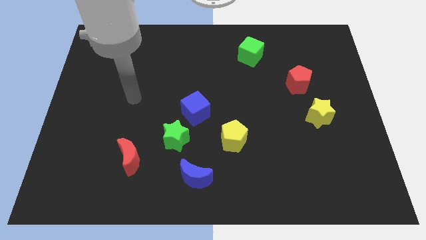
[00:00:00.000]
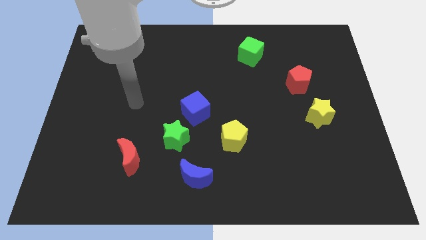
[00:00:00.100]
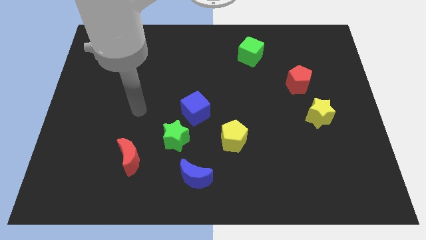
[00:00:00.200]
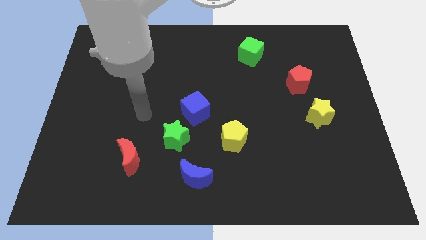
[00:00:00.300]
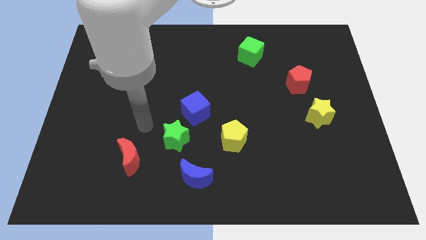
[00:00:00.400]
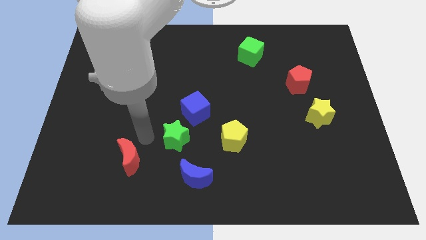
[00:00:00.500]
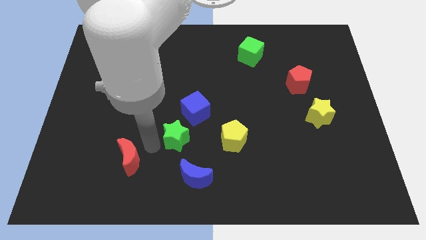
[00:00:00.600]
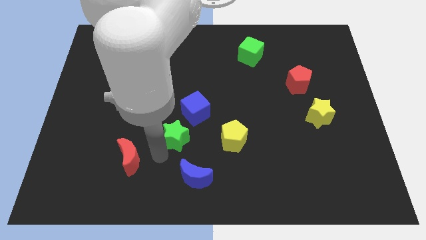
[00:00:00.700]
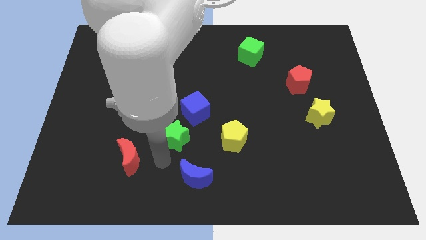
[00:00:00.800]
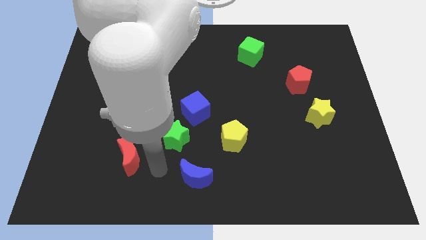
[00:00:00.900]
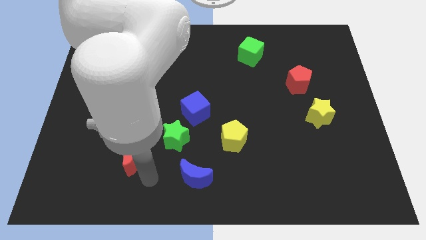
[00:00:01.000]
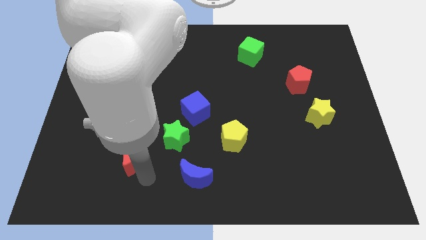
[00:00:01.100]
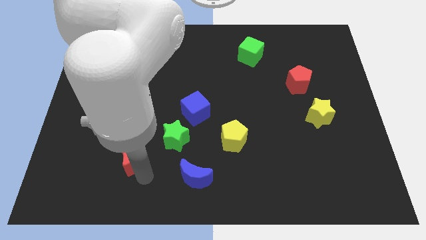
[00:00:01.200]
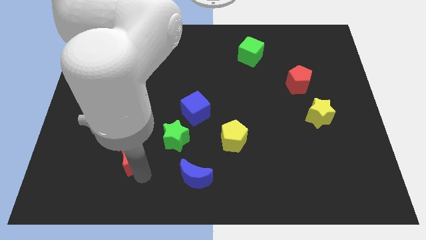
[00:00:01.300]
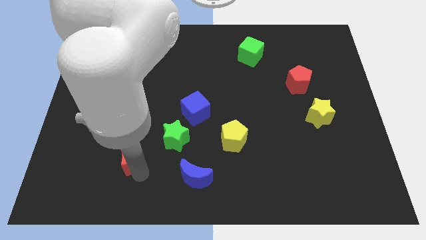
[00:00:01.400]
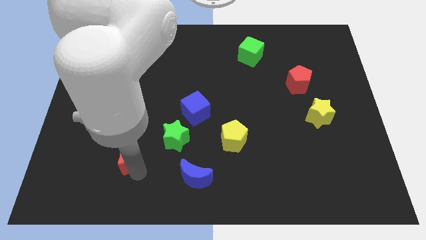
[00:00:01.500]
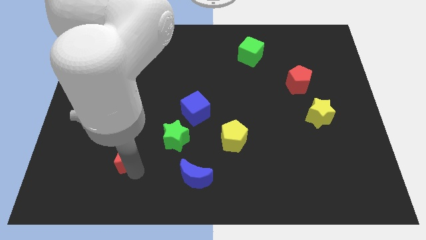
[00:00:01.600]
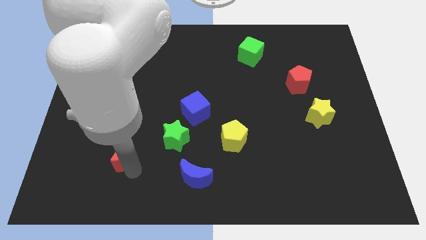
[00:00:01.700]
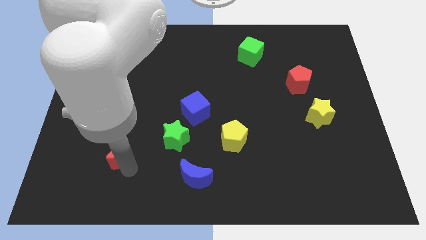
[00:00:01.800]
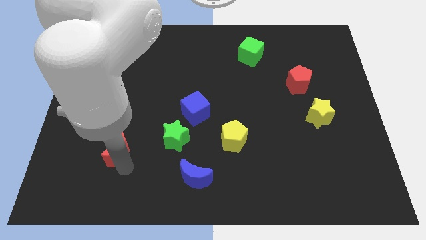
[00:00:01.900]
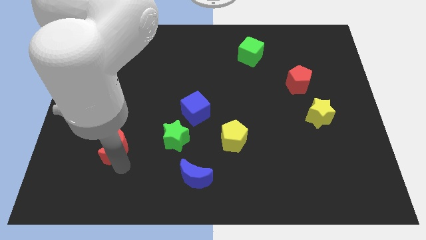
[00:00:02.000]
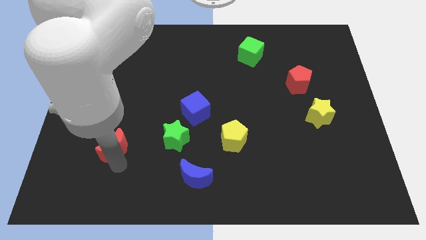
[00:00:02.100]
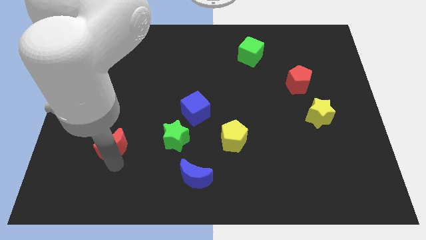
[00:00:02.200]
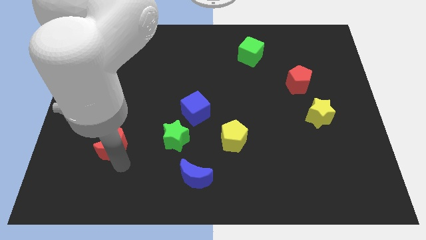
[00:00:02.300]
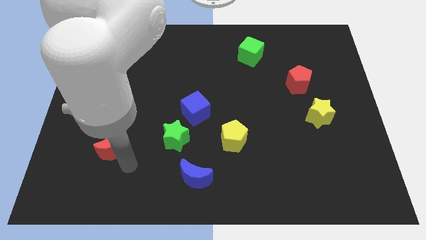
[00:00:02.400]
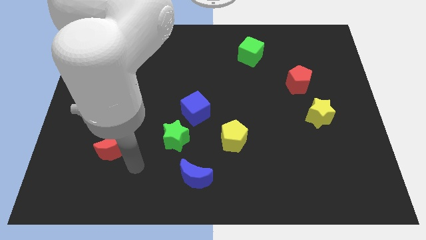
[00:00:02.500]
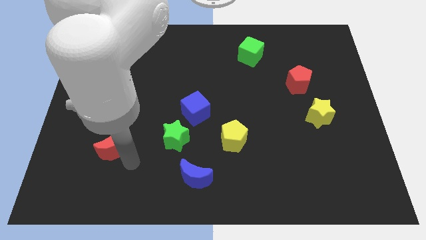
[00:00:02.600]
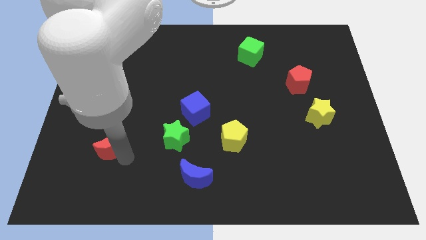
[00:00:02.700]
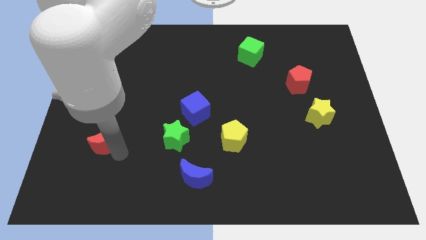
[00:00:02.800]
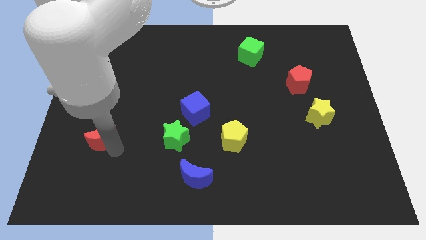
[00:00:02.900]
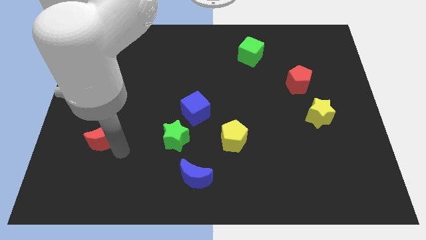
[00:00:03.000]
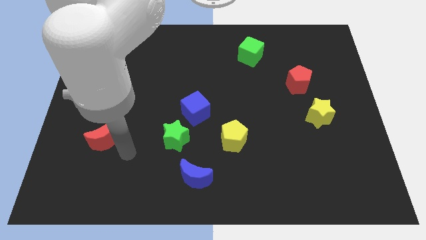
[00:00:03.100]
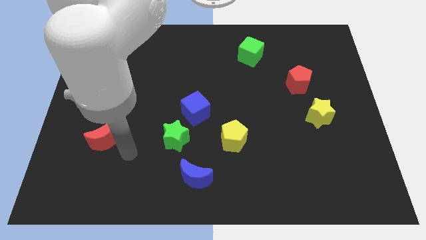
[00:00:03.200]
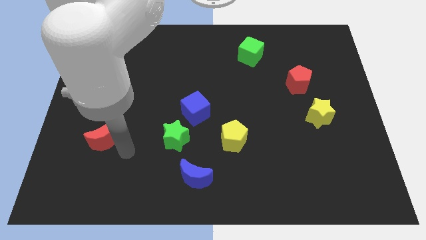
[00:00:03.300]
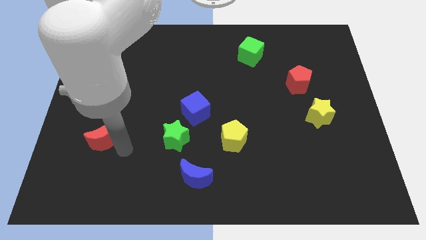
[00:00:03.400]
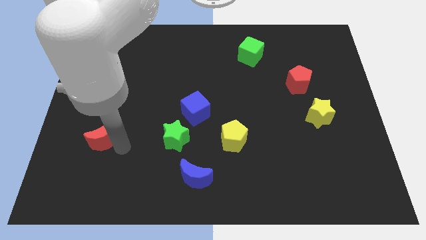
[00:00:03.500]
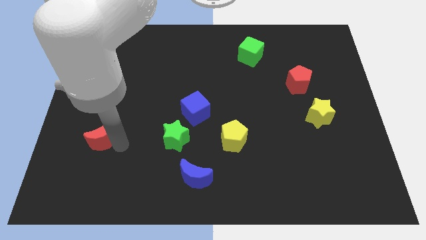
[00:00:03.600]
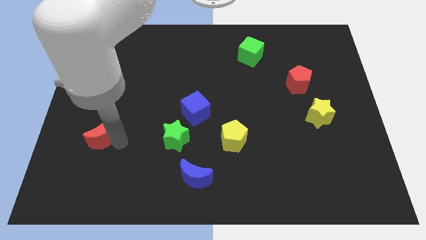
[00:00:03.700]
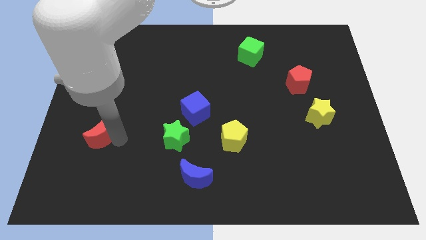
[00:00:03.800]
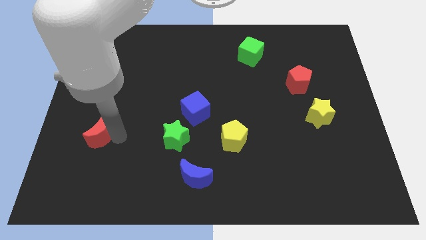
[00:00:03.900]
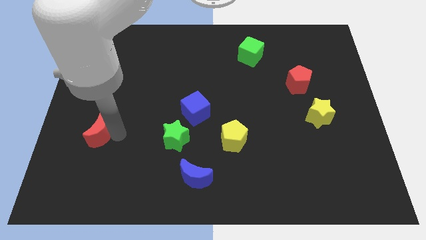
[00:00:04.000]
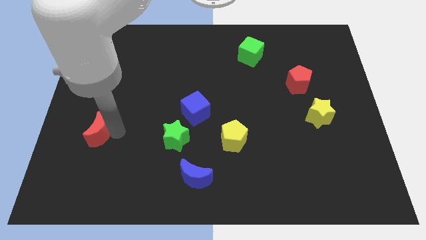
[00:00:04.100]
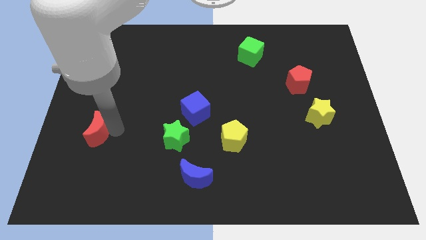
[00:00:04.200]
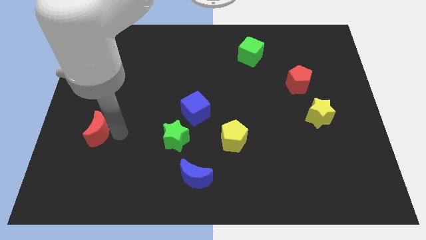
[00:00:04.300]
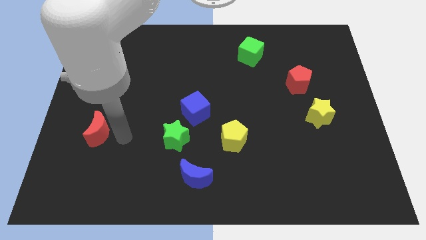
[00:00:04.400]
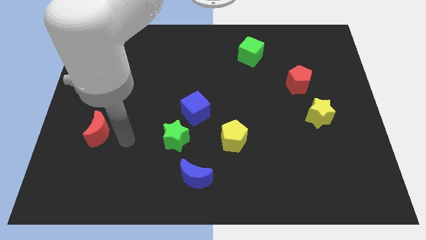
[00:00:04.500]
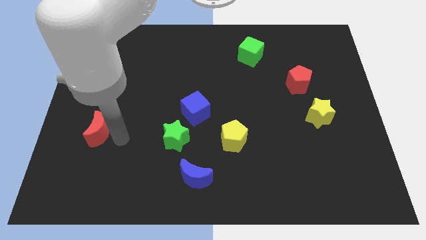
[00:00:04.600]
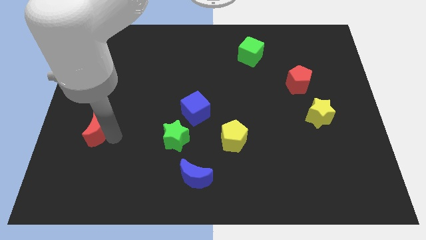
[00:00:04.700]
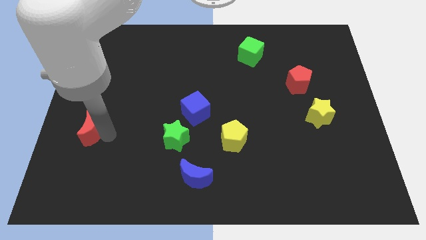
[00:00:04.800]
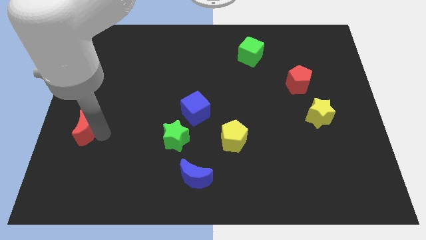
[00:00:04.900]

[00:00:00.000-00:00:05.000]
move the red moon to the left side

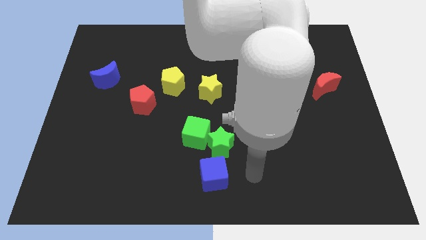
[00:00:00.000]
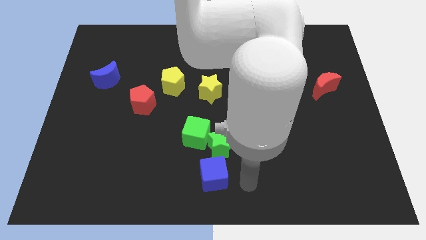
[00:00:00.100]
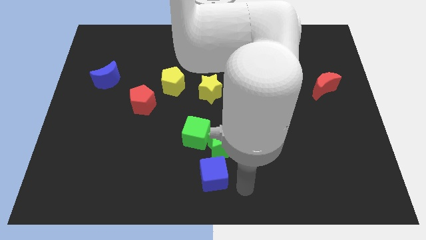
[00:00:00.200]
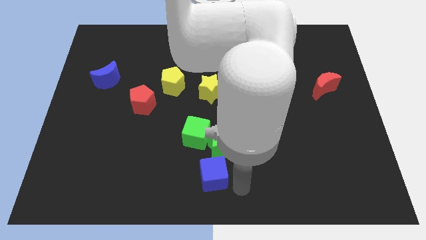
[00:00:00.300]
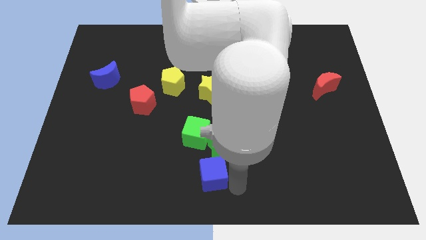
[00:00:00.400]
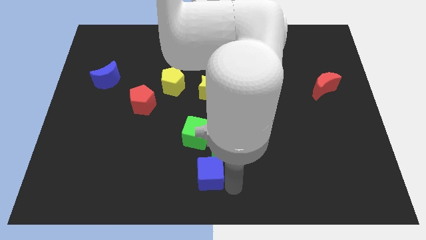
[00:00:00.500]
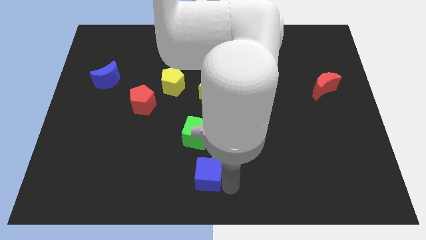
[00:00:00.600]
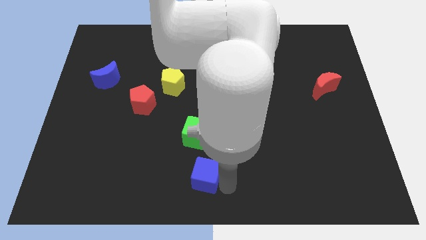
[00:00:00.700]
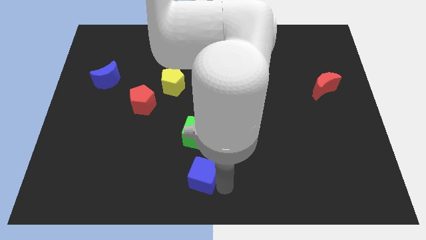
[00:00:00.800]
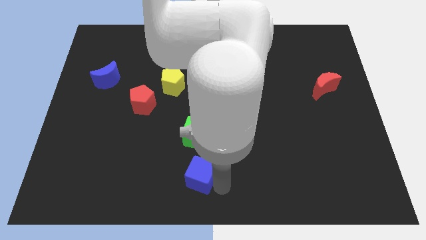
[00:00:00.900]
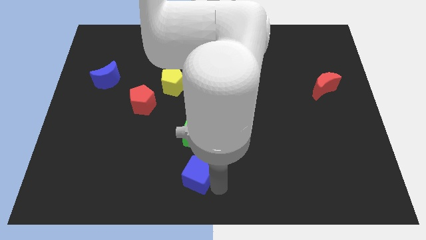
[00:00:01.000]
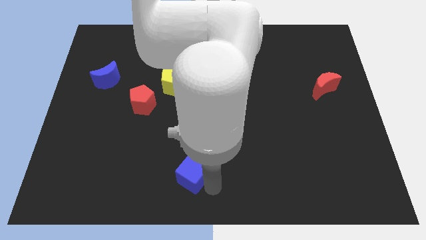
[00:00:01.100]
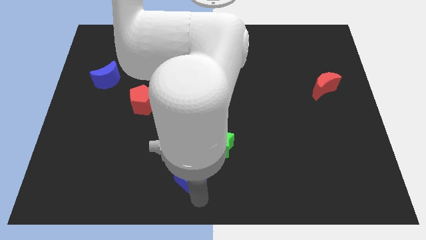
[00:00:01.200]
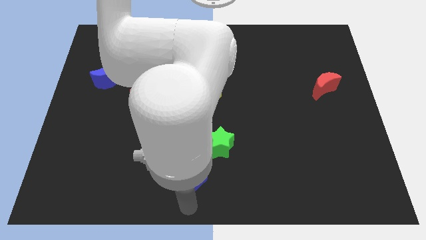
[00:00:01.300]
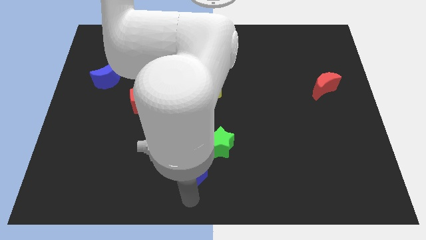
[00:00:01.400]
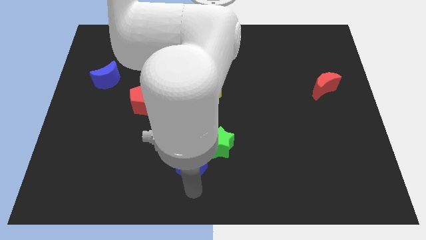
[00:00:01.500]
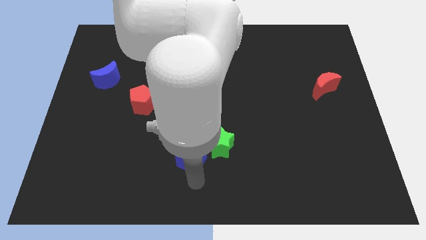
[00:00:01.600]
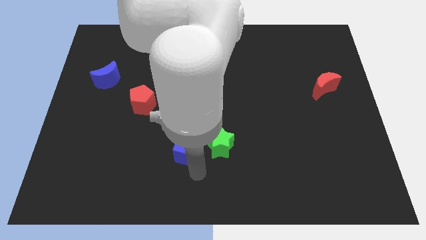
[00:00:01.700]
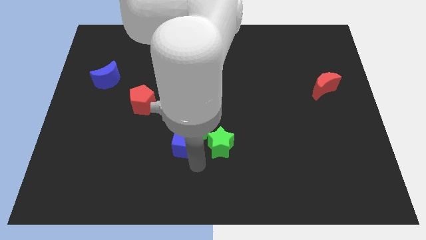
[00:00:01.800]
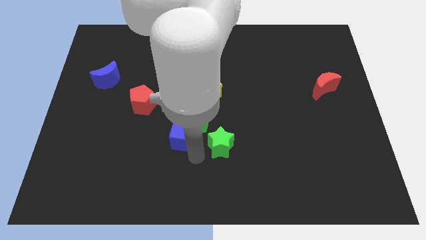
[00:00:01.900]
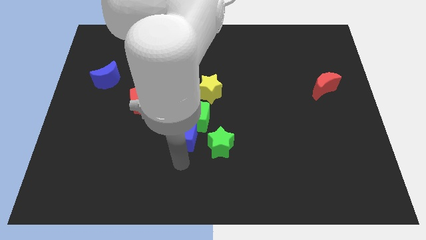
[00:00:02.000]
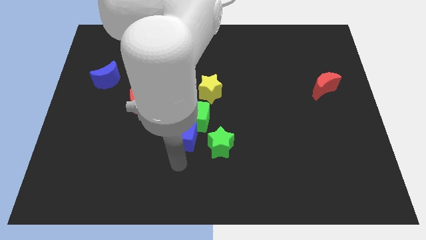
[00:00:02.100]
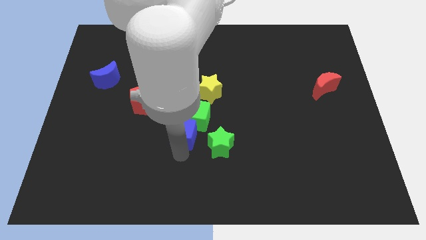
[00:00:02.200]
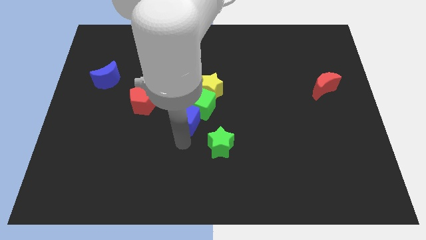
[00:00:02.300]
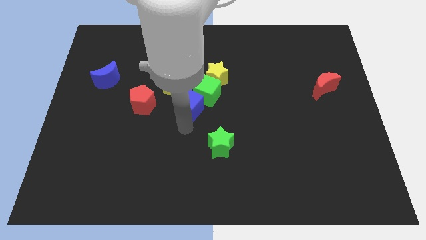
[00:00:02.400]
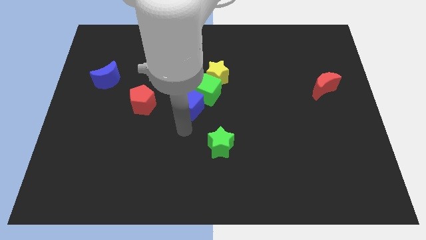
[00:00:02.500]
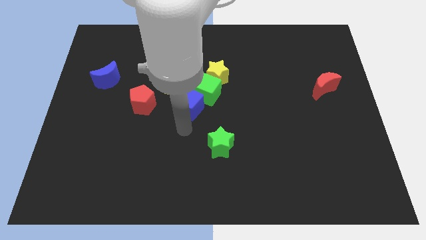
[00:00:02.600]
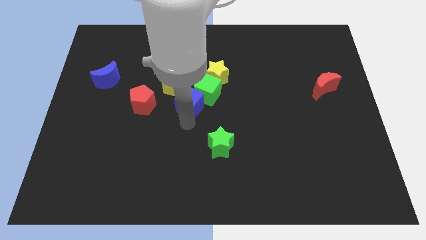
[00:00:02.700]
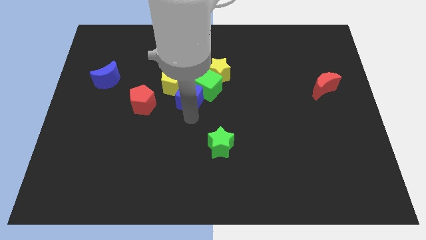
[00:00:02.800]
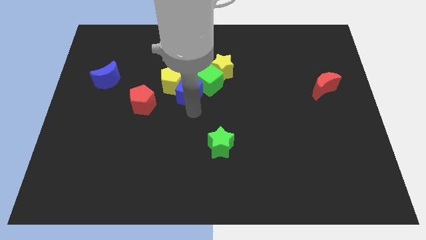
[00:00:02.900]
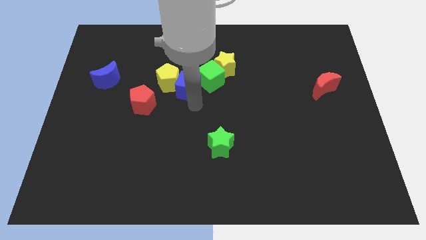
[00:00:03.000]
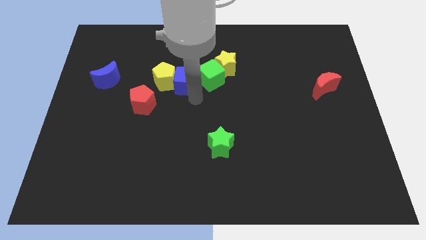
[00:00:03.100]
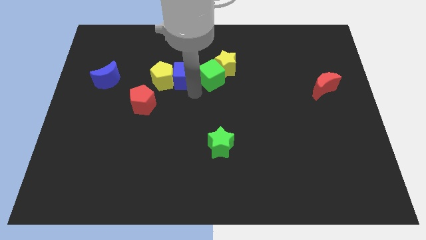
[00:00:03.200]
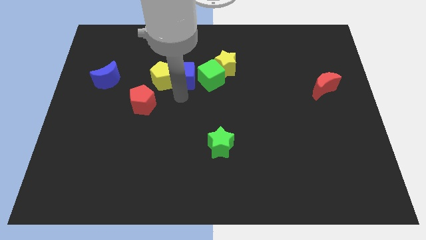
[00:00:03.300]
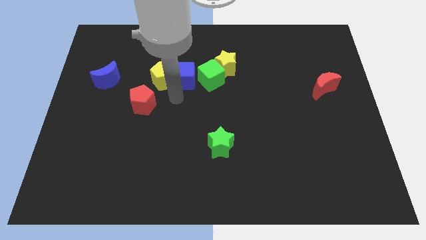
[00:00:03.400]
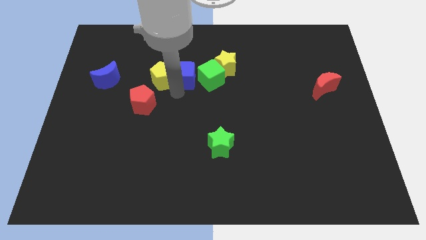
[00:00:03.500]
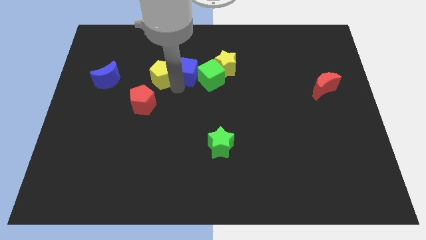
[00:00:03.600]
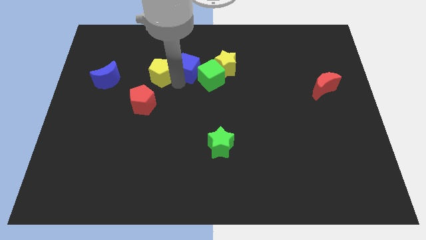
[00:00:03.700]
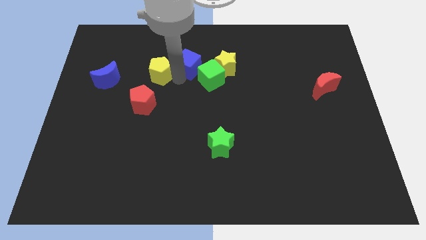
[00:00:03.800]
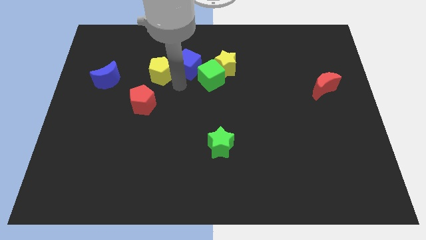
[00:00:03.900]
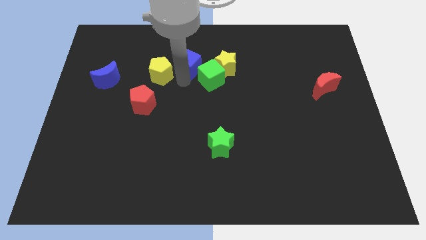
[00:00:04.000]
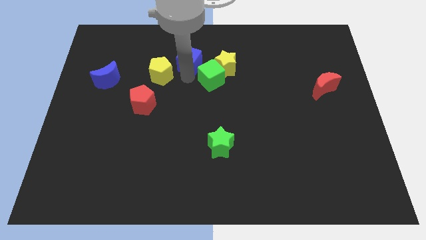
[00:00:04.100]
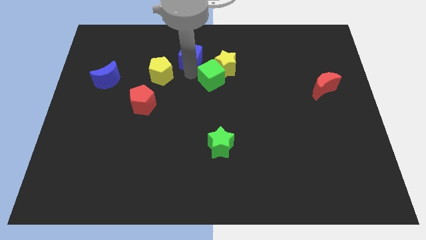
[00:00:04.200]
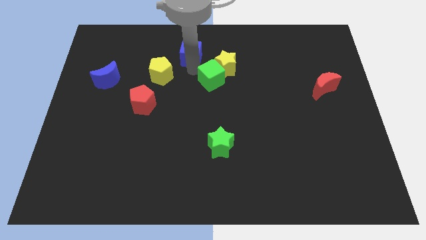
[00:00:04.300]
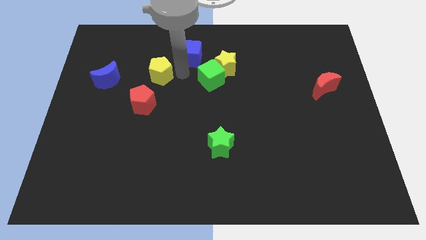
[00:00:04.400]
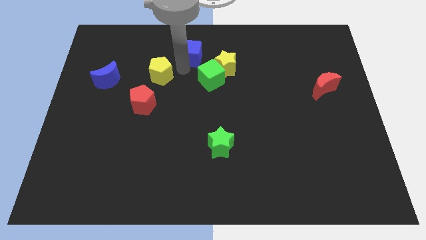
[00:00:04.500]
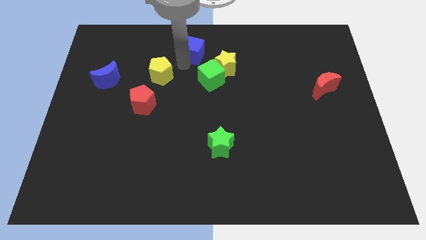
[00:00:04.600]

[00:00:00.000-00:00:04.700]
slide the blue cube to the top side
